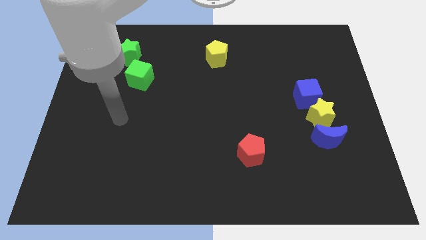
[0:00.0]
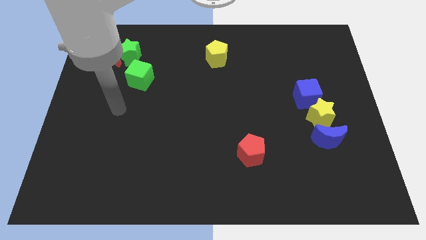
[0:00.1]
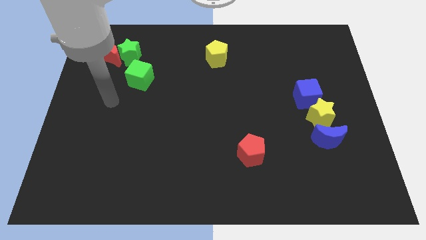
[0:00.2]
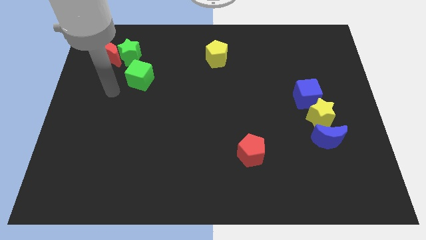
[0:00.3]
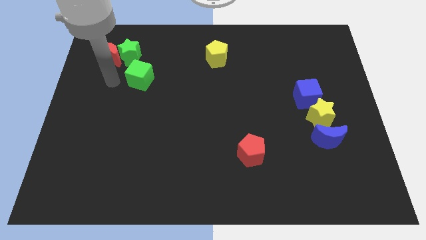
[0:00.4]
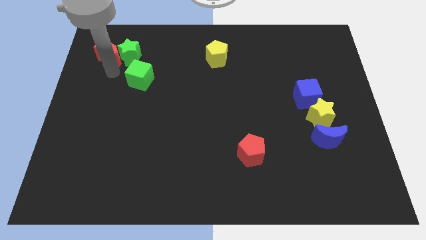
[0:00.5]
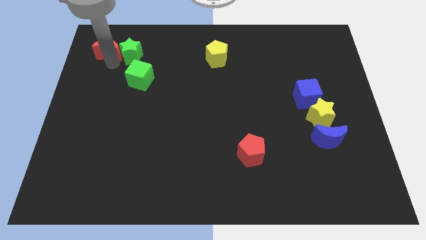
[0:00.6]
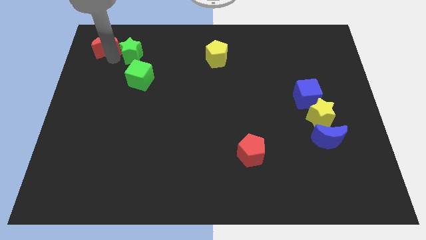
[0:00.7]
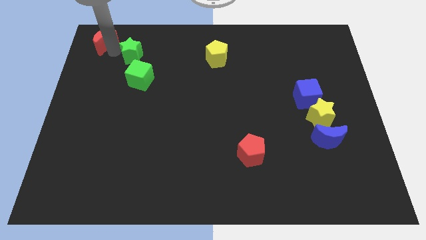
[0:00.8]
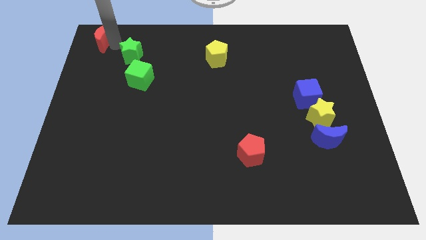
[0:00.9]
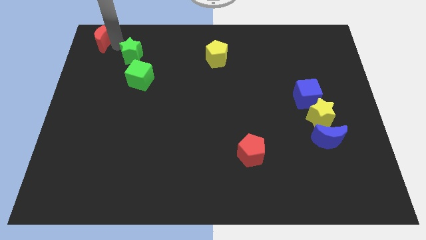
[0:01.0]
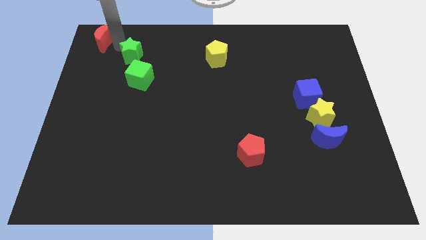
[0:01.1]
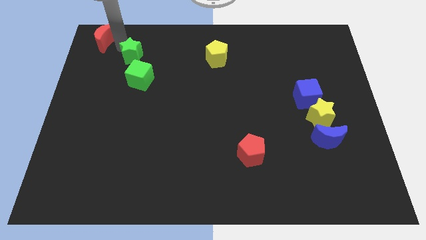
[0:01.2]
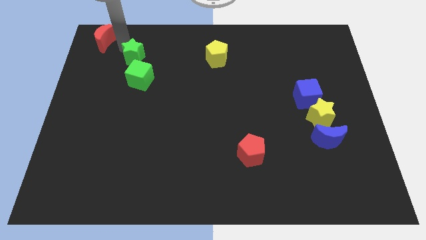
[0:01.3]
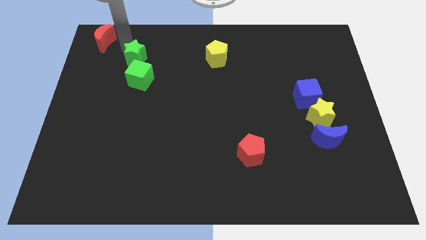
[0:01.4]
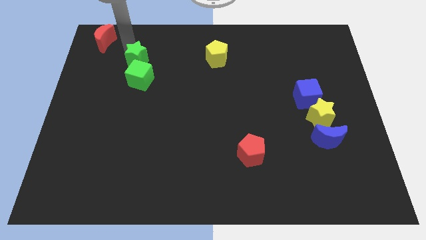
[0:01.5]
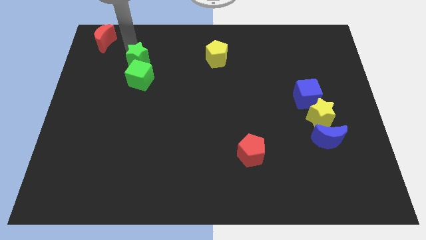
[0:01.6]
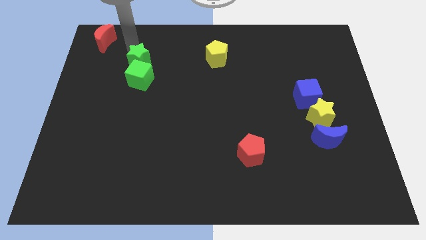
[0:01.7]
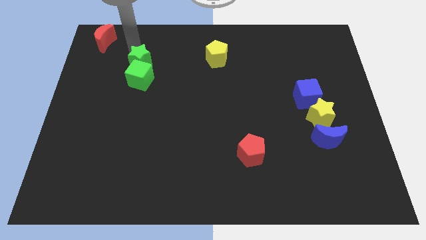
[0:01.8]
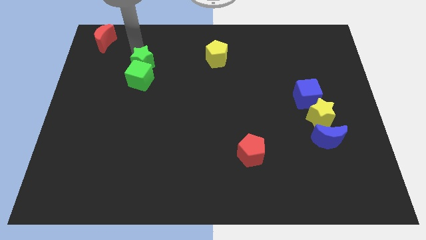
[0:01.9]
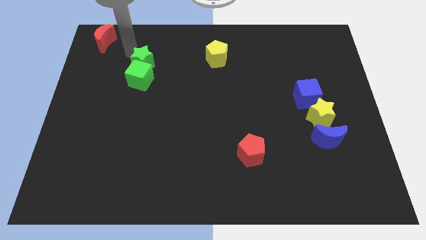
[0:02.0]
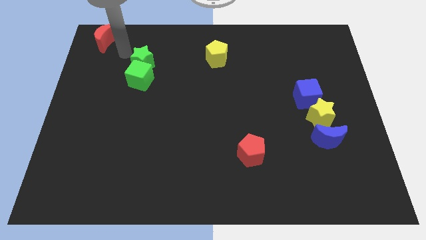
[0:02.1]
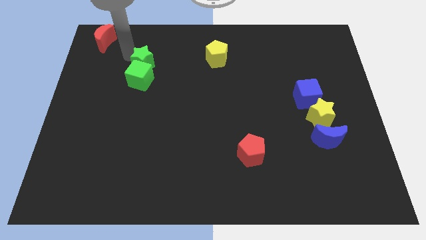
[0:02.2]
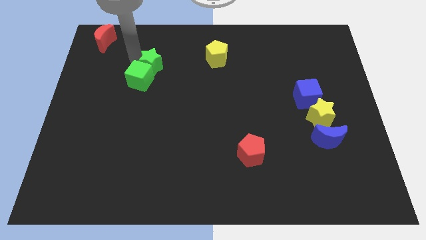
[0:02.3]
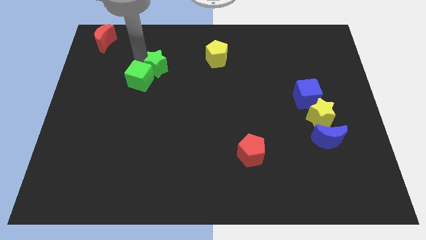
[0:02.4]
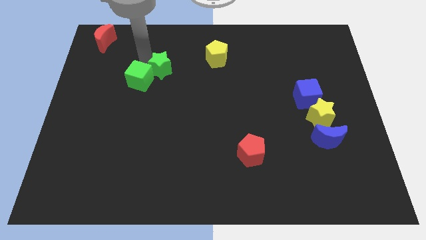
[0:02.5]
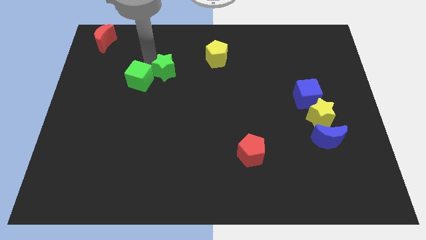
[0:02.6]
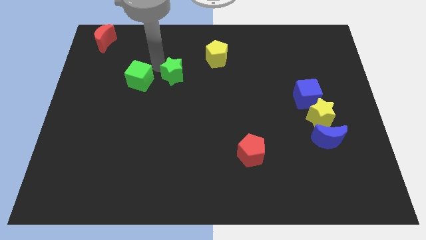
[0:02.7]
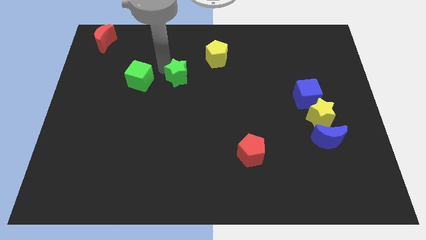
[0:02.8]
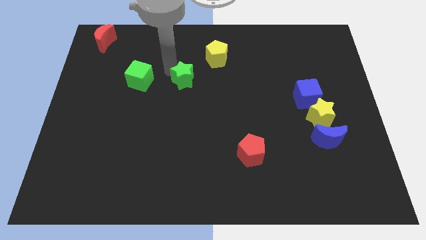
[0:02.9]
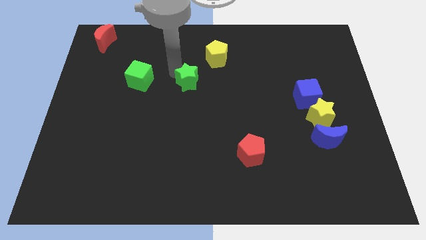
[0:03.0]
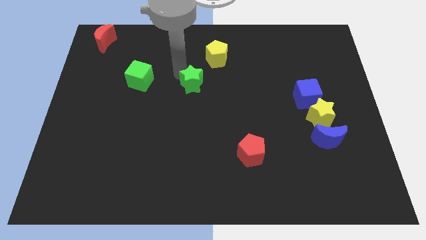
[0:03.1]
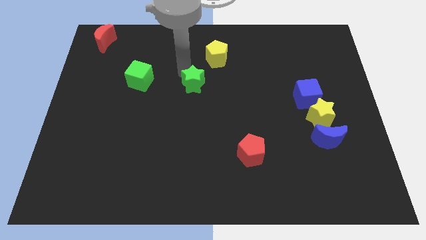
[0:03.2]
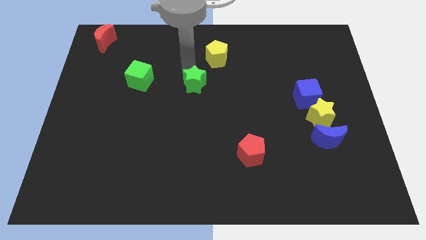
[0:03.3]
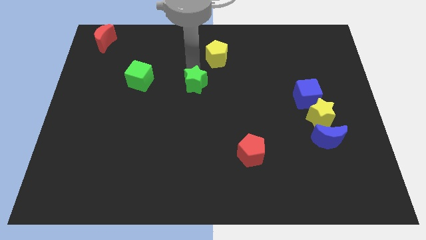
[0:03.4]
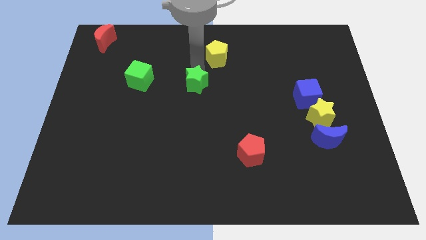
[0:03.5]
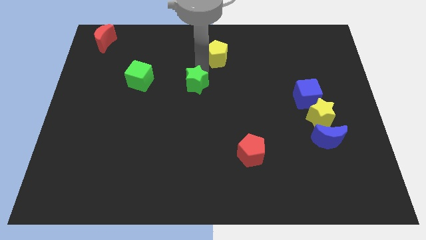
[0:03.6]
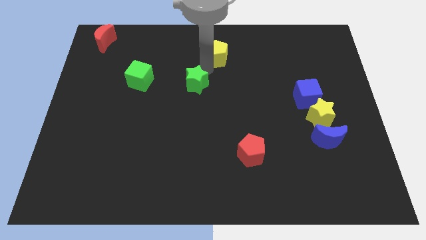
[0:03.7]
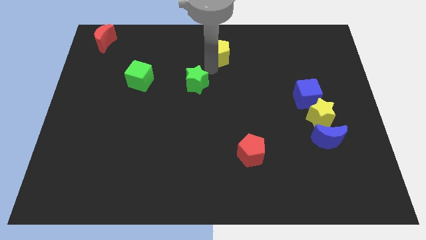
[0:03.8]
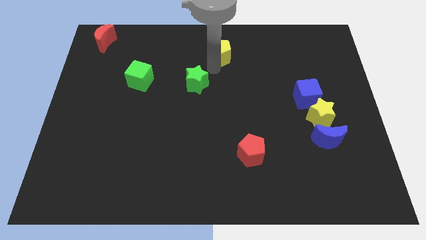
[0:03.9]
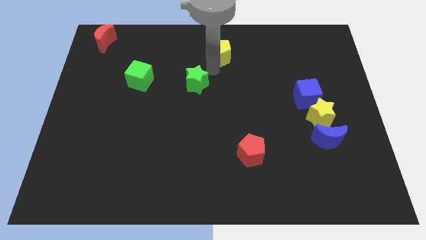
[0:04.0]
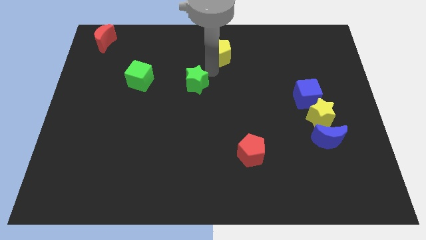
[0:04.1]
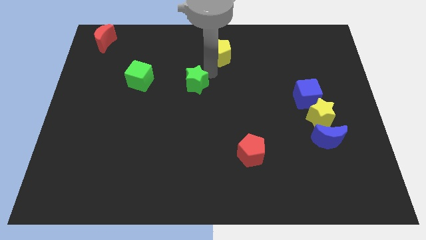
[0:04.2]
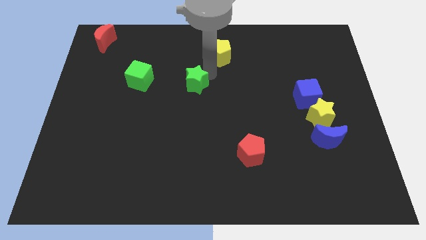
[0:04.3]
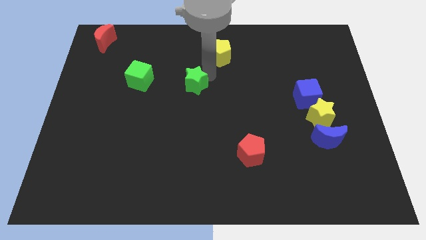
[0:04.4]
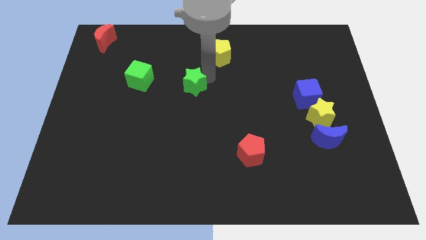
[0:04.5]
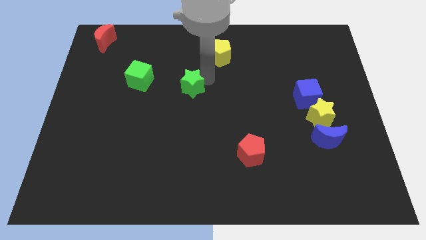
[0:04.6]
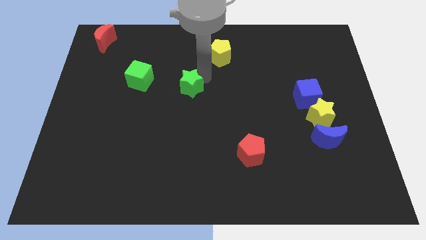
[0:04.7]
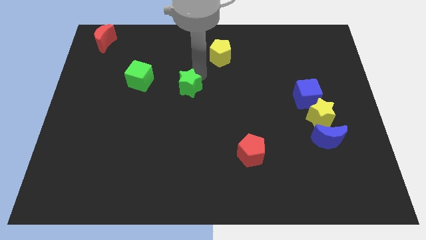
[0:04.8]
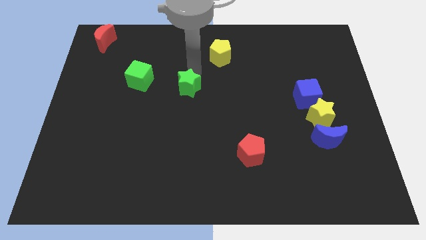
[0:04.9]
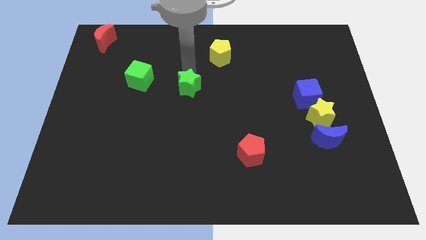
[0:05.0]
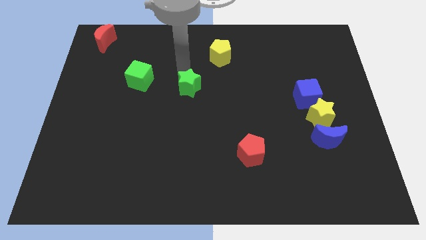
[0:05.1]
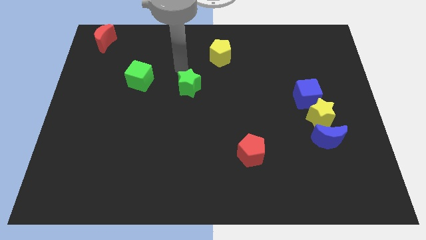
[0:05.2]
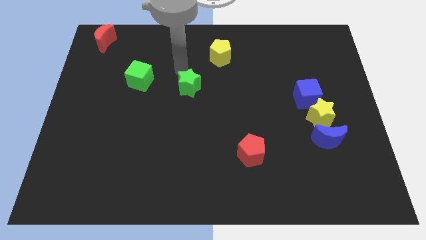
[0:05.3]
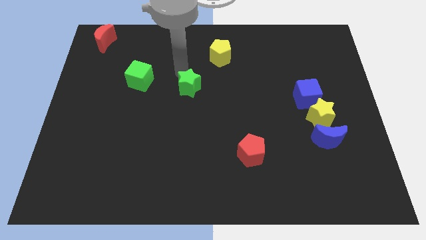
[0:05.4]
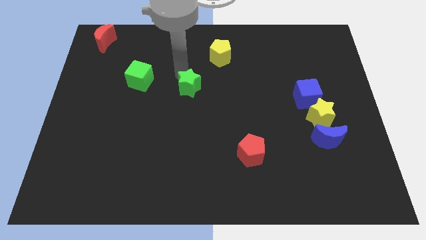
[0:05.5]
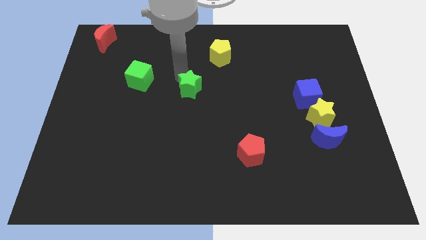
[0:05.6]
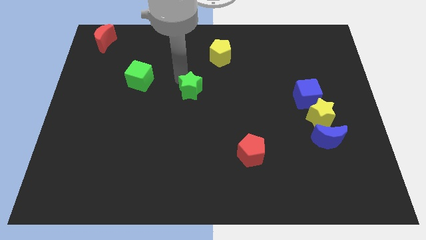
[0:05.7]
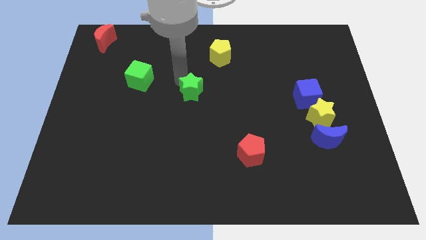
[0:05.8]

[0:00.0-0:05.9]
slide the green star down and right

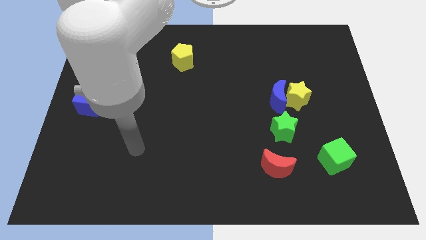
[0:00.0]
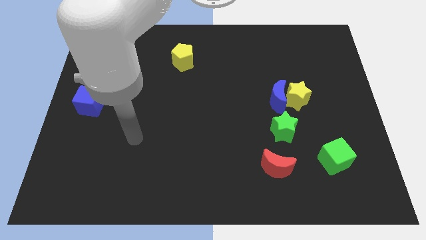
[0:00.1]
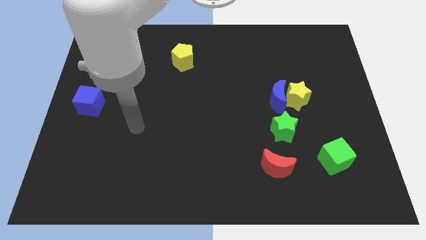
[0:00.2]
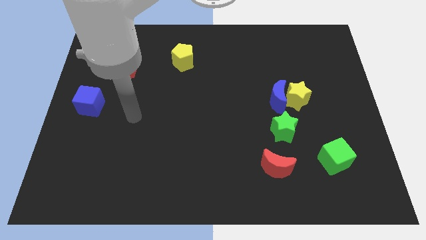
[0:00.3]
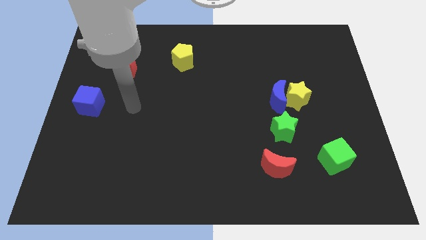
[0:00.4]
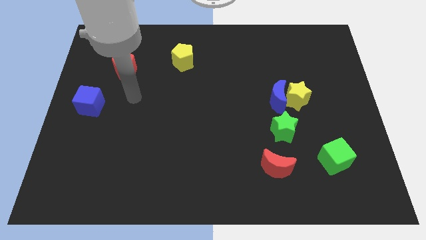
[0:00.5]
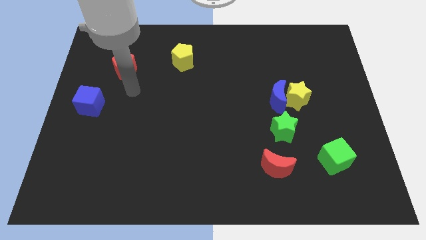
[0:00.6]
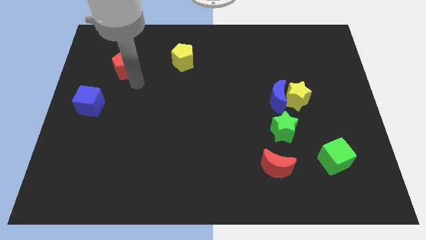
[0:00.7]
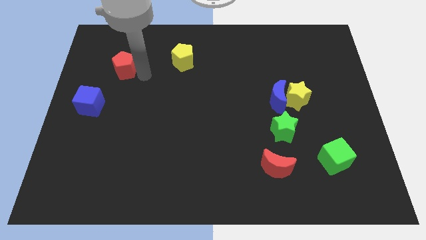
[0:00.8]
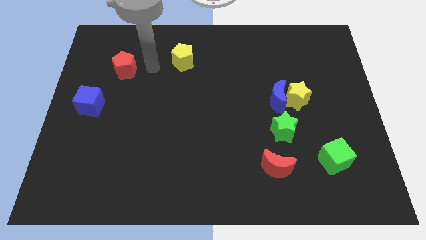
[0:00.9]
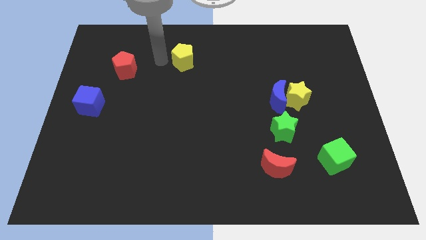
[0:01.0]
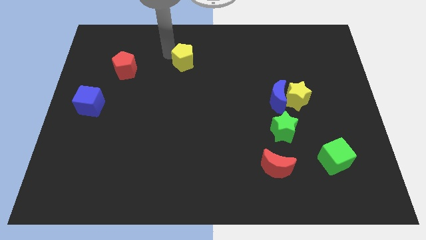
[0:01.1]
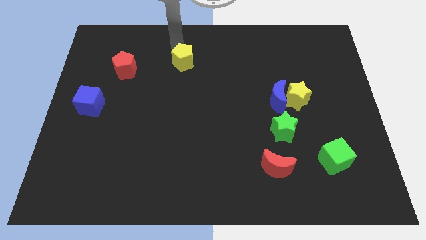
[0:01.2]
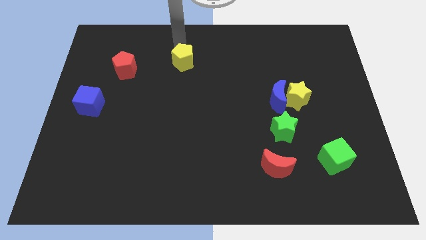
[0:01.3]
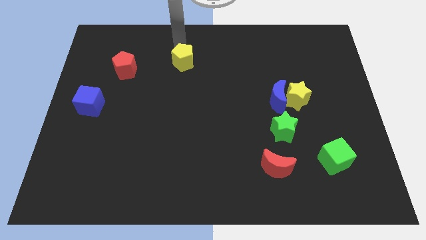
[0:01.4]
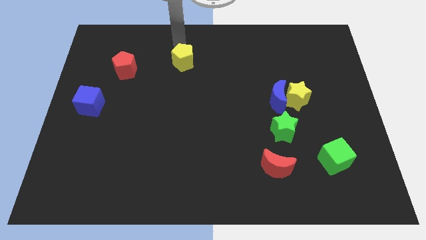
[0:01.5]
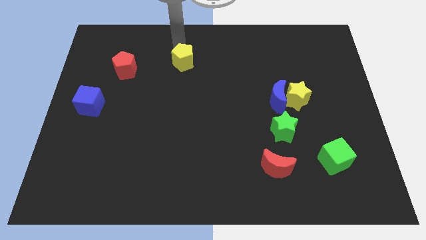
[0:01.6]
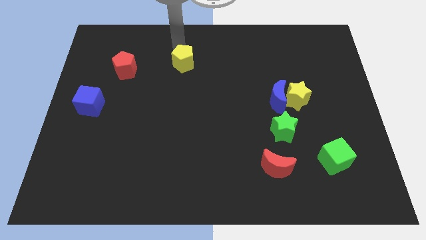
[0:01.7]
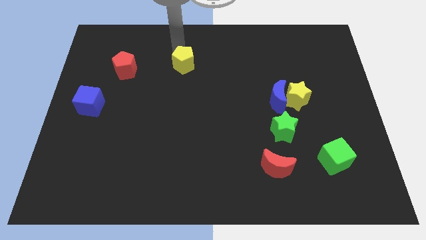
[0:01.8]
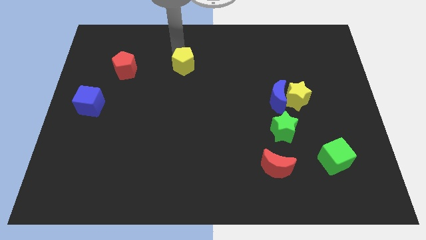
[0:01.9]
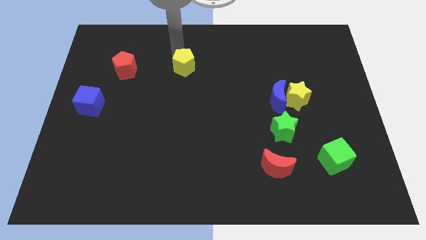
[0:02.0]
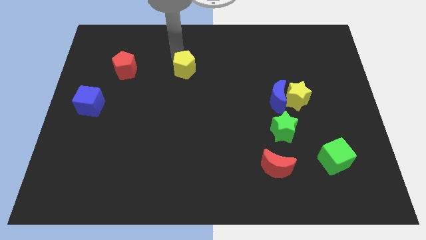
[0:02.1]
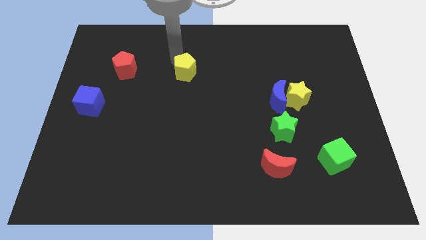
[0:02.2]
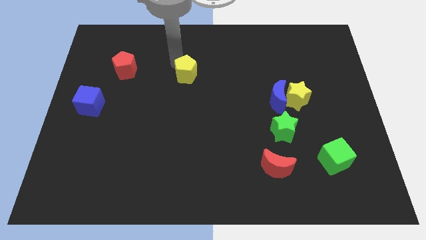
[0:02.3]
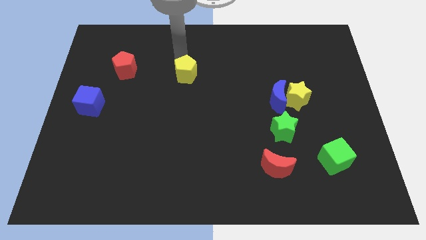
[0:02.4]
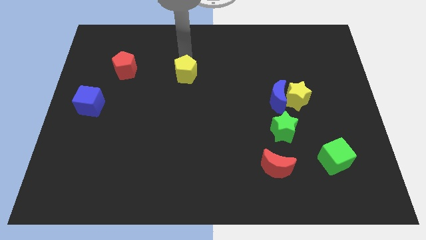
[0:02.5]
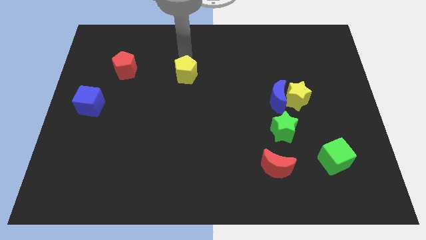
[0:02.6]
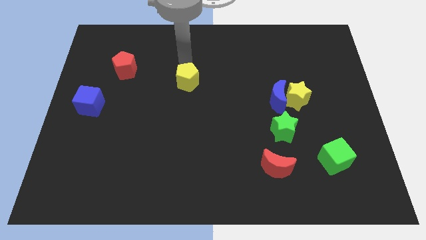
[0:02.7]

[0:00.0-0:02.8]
slightly push the yellow pentagon downwards

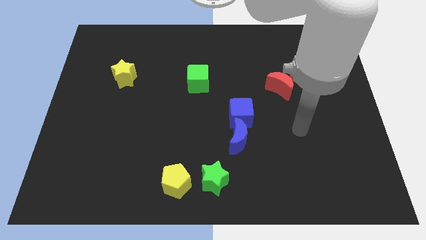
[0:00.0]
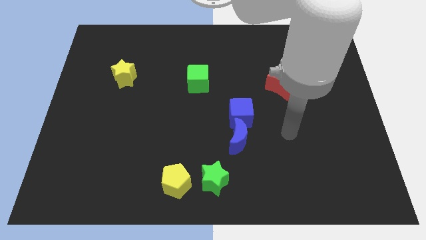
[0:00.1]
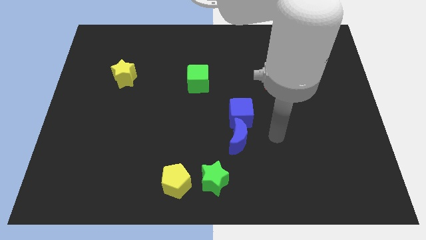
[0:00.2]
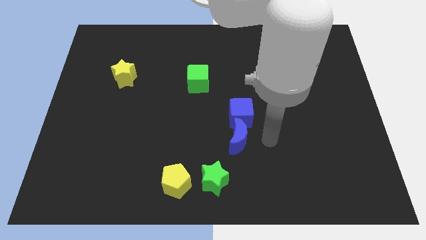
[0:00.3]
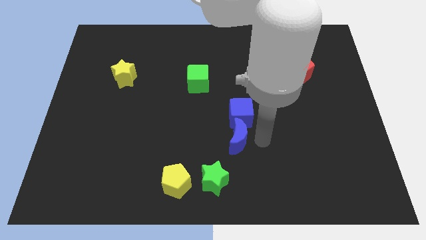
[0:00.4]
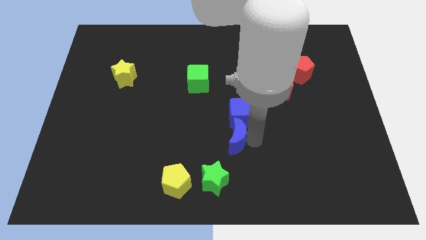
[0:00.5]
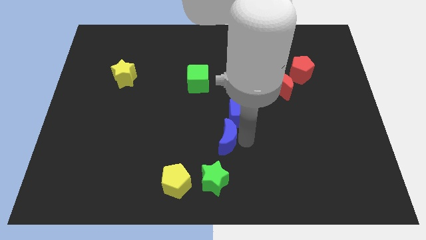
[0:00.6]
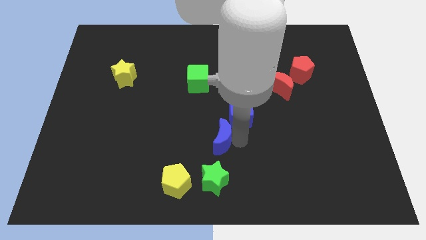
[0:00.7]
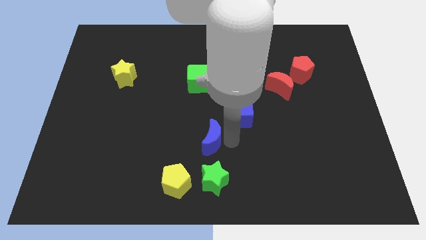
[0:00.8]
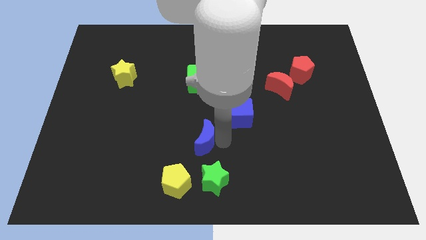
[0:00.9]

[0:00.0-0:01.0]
slide the blue moon to the left a little bit
